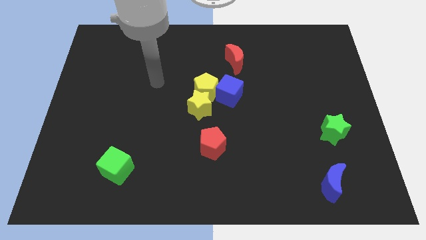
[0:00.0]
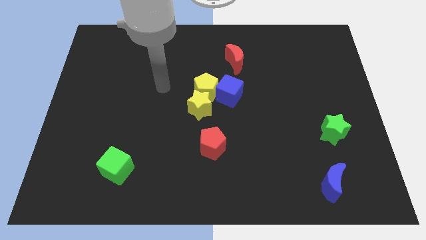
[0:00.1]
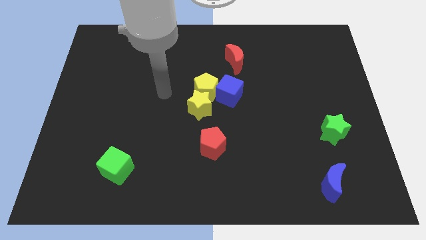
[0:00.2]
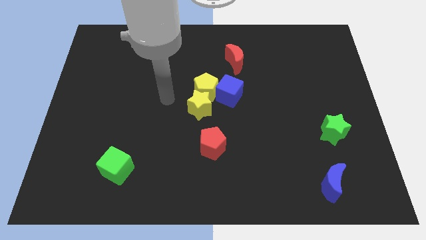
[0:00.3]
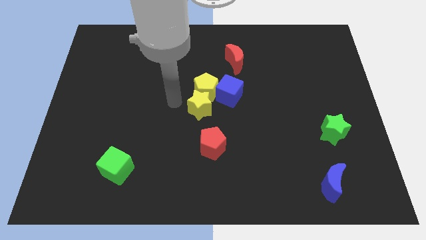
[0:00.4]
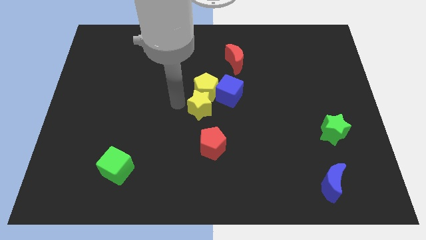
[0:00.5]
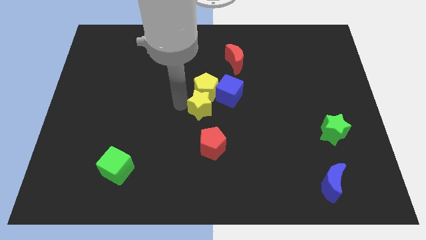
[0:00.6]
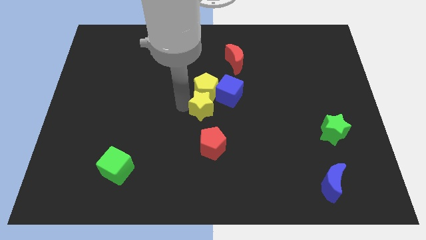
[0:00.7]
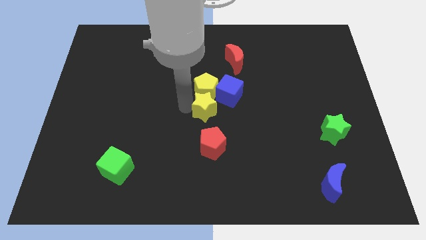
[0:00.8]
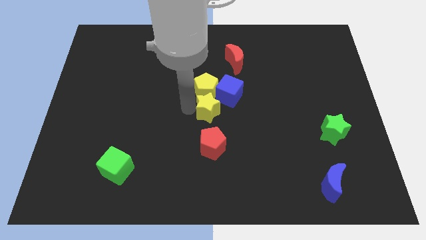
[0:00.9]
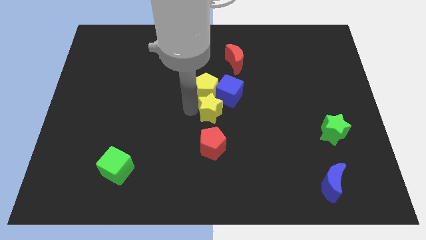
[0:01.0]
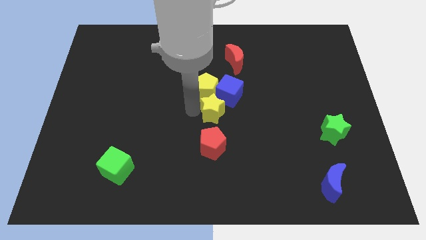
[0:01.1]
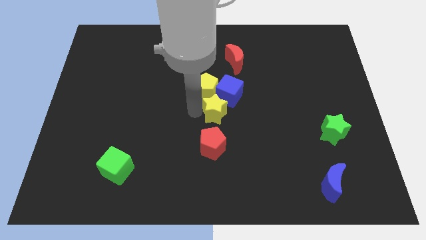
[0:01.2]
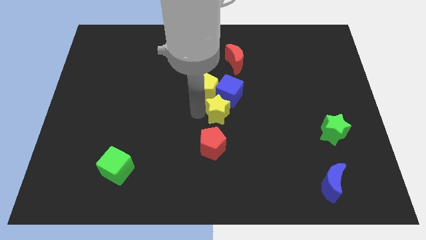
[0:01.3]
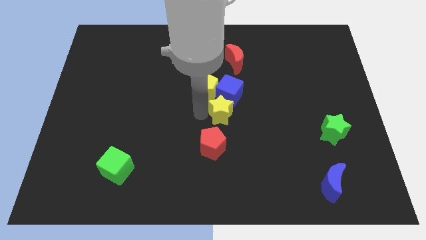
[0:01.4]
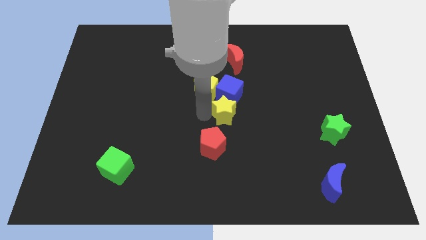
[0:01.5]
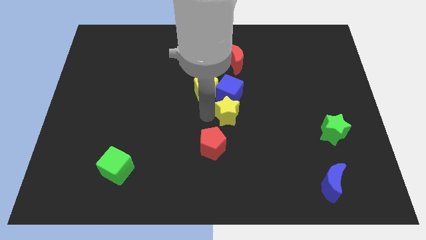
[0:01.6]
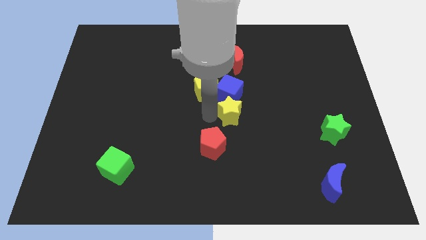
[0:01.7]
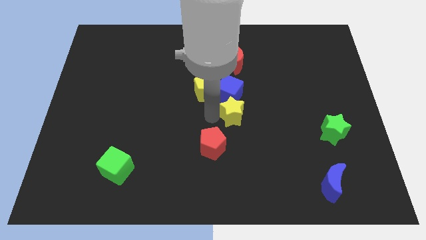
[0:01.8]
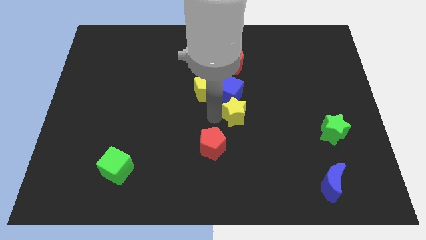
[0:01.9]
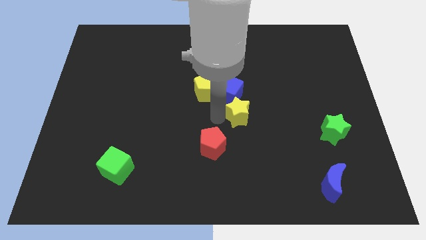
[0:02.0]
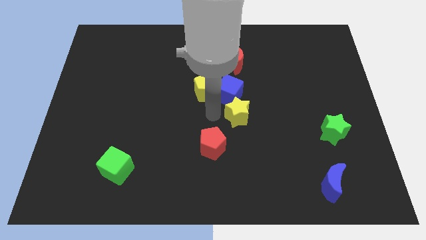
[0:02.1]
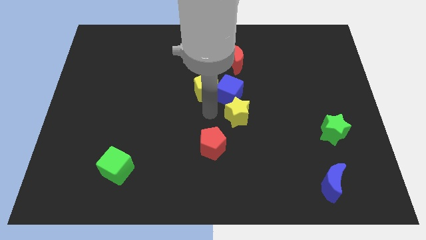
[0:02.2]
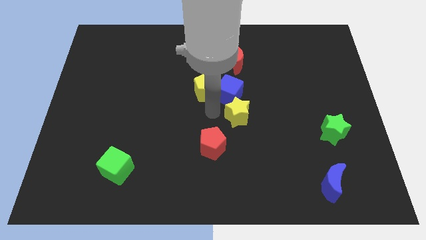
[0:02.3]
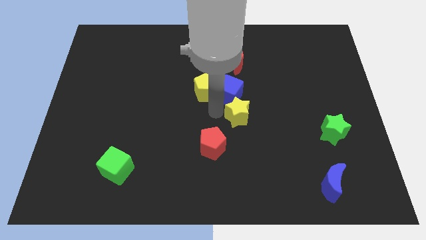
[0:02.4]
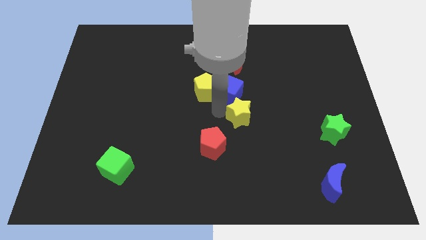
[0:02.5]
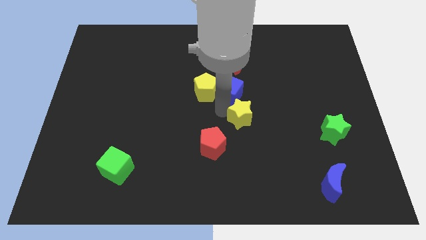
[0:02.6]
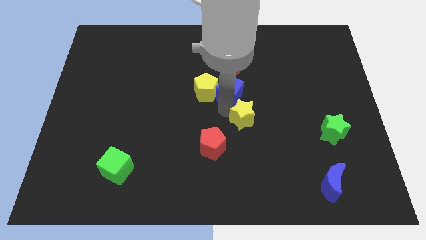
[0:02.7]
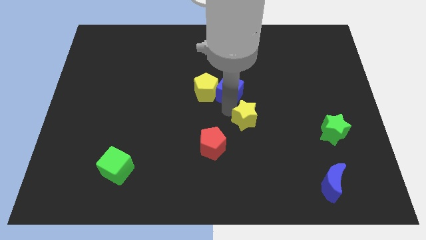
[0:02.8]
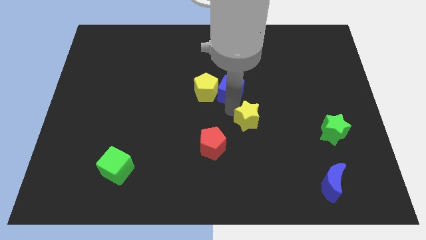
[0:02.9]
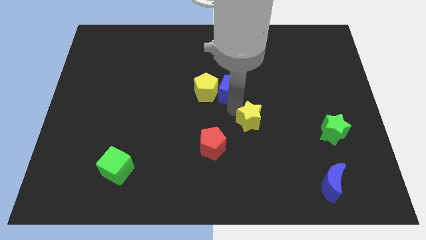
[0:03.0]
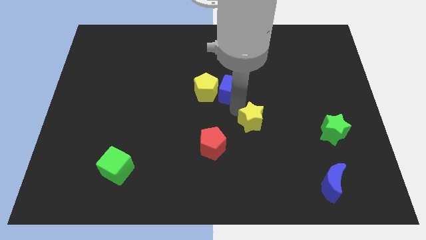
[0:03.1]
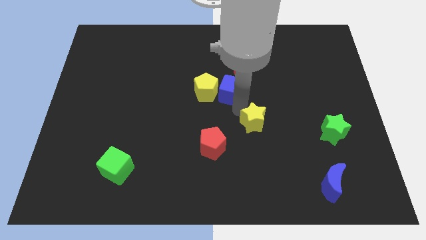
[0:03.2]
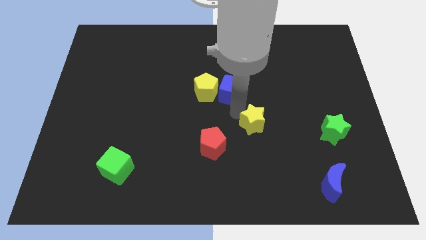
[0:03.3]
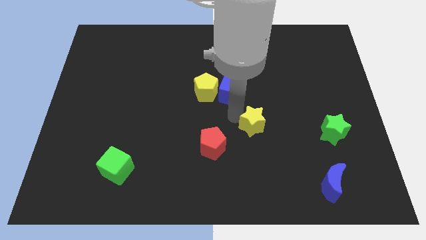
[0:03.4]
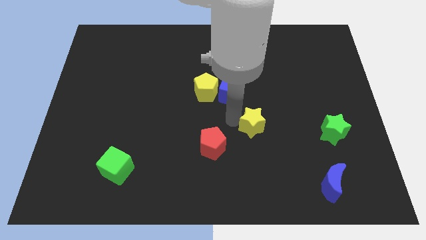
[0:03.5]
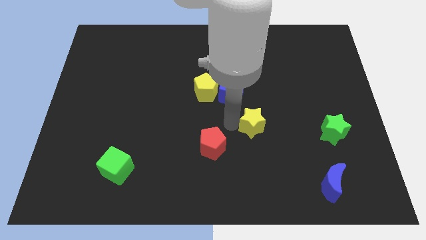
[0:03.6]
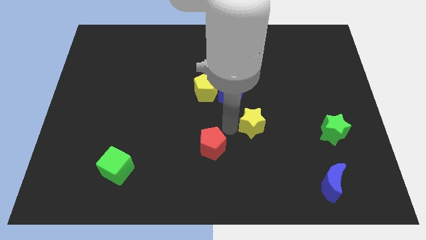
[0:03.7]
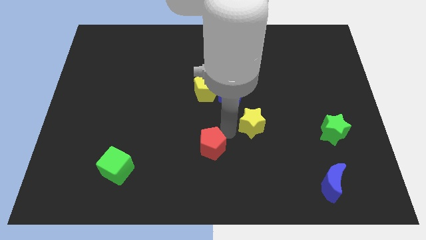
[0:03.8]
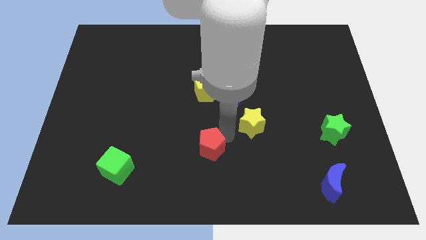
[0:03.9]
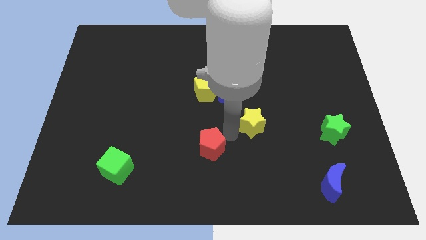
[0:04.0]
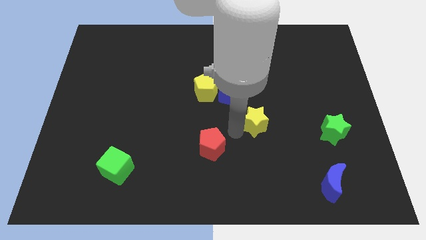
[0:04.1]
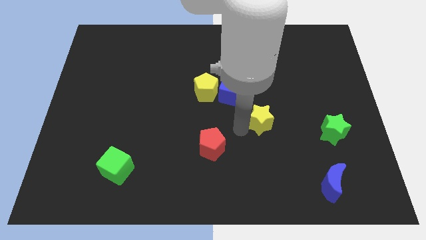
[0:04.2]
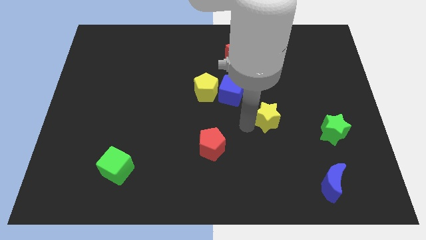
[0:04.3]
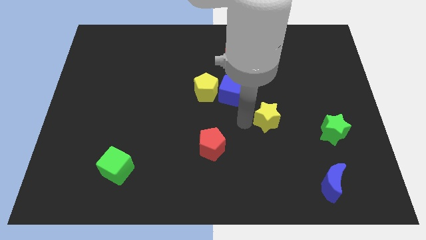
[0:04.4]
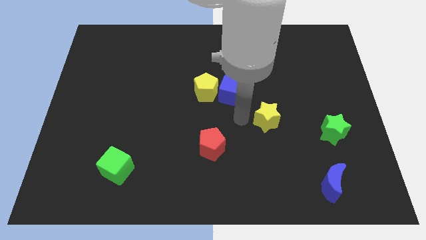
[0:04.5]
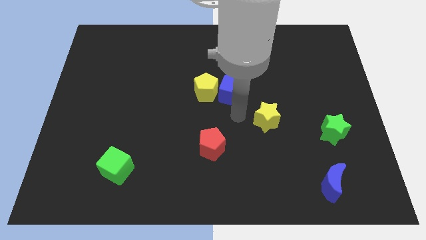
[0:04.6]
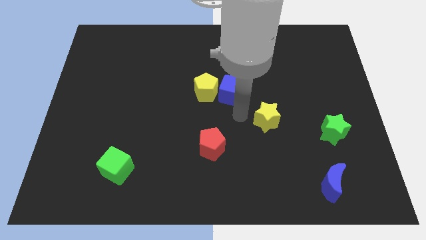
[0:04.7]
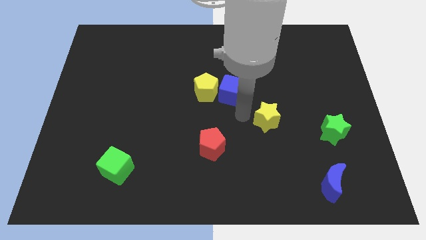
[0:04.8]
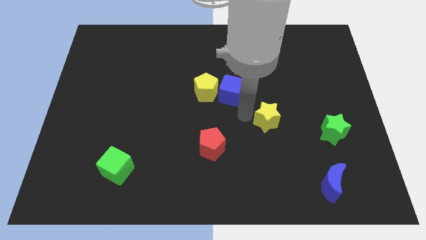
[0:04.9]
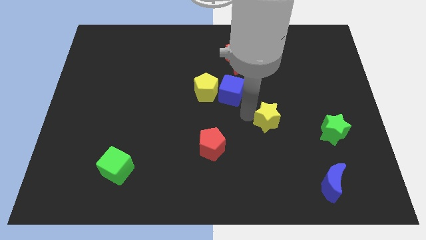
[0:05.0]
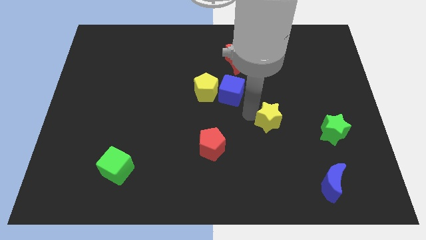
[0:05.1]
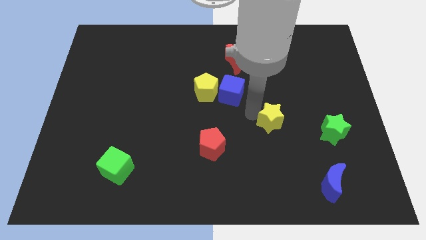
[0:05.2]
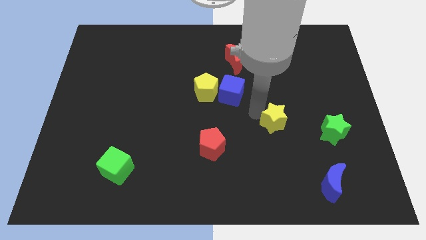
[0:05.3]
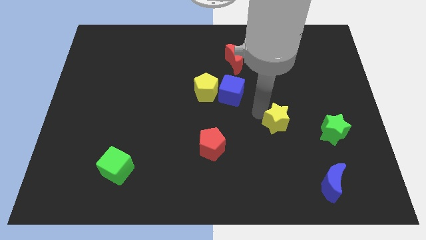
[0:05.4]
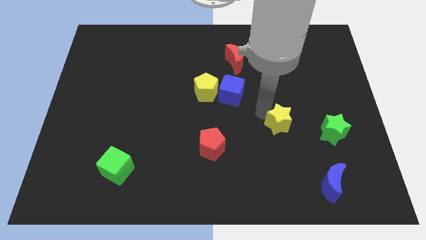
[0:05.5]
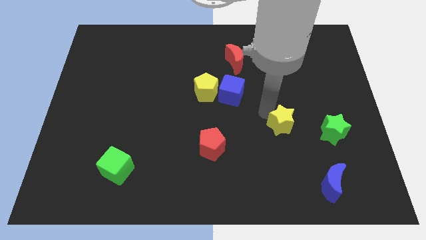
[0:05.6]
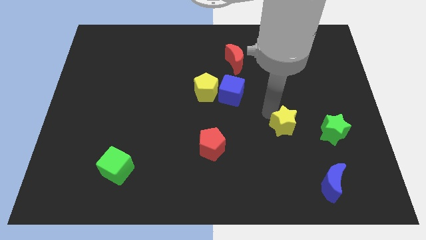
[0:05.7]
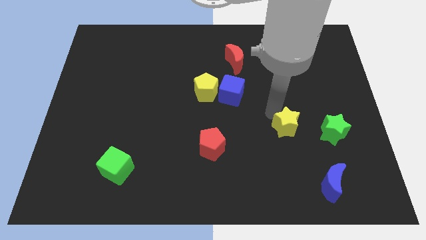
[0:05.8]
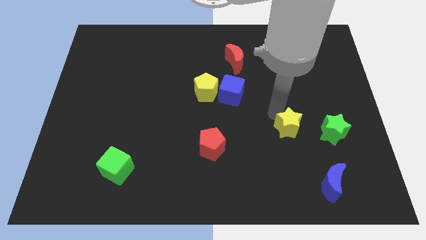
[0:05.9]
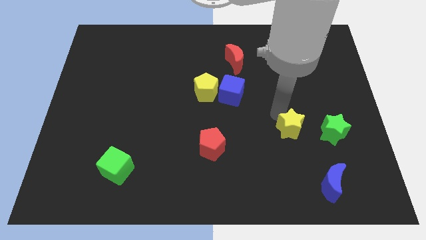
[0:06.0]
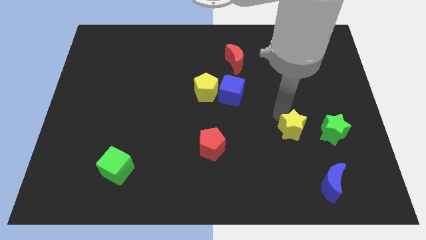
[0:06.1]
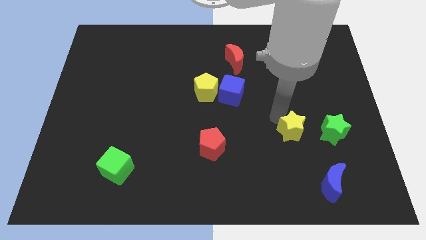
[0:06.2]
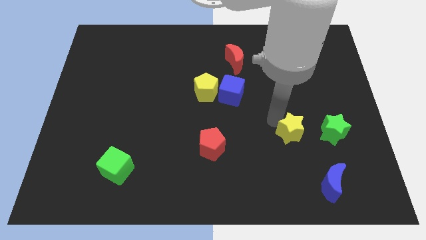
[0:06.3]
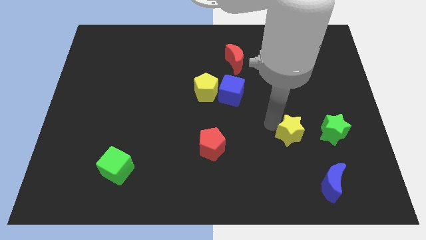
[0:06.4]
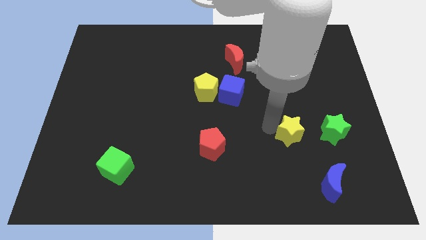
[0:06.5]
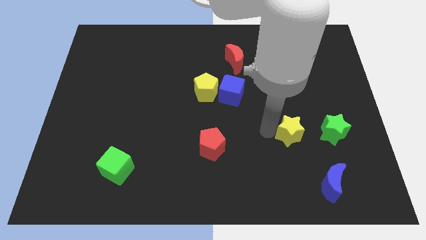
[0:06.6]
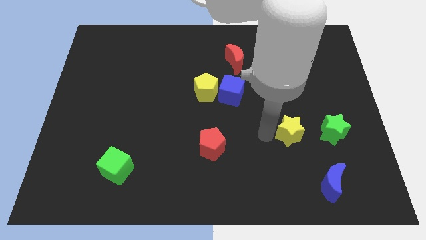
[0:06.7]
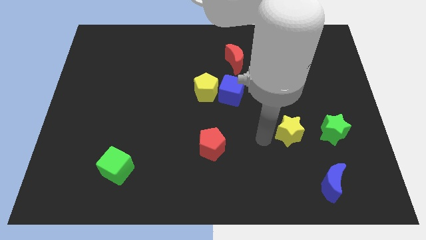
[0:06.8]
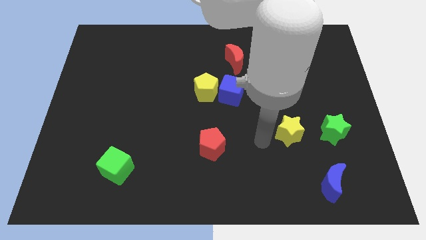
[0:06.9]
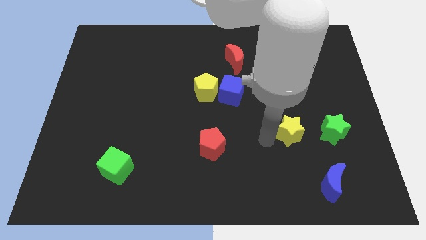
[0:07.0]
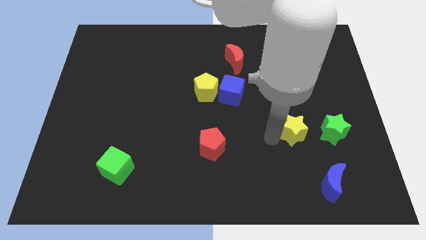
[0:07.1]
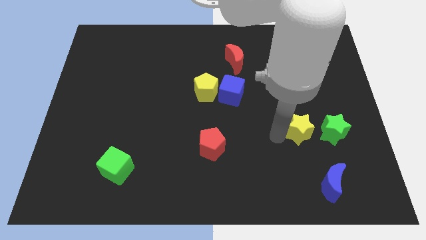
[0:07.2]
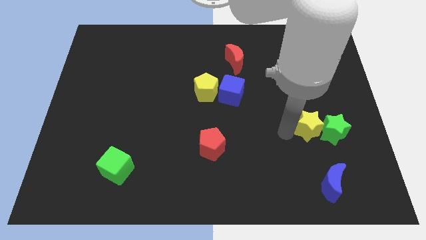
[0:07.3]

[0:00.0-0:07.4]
move the yellow star next to the green star
